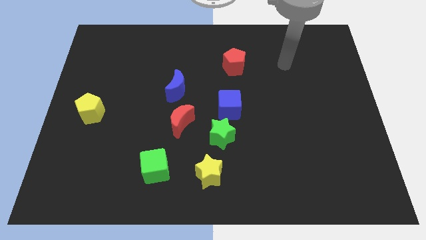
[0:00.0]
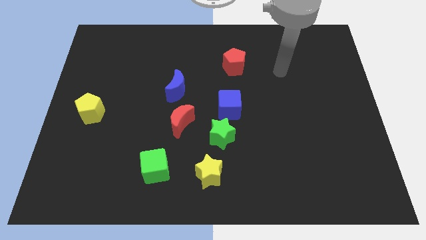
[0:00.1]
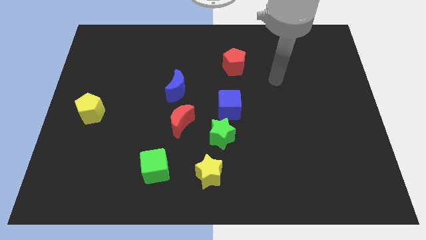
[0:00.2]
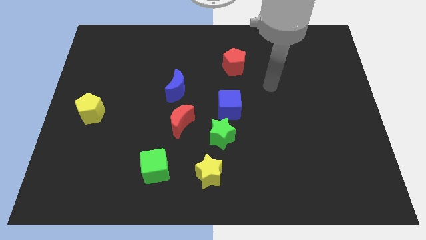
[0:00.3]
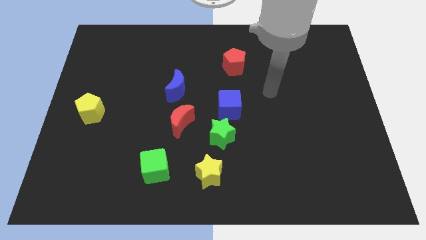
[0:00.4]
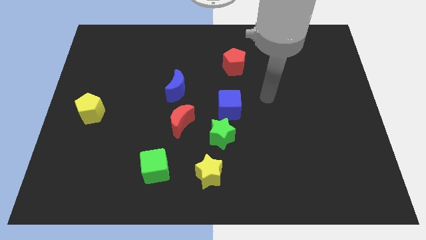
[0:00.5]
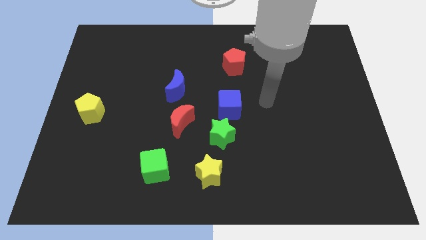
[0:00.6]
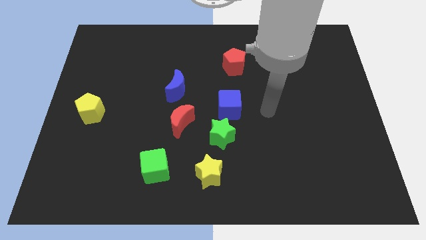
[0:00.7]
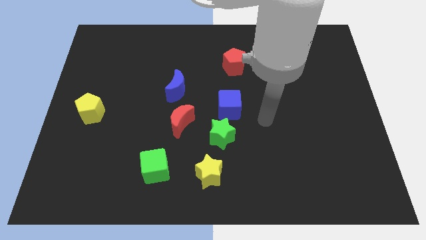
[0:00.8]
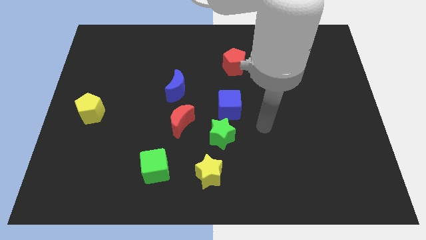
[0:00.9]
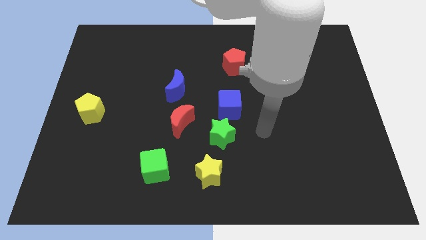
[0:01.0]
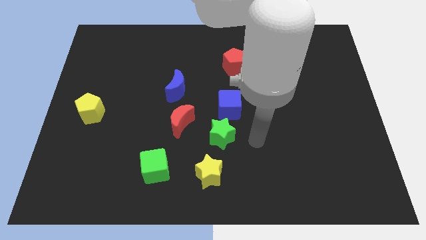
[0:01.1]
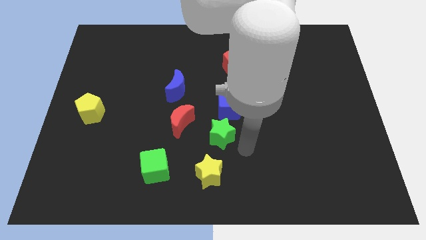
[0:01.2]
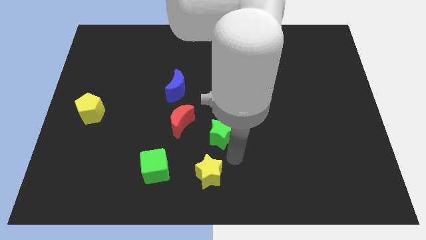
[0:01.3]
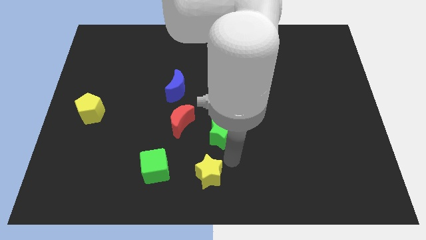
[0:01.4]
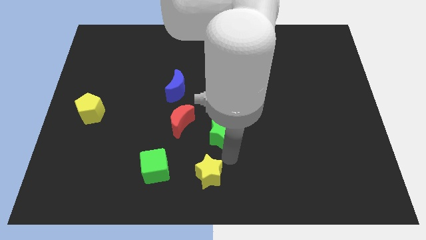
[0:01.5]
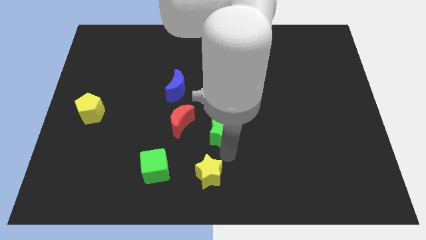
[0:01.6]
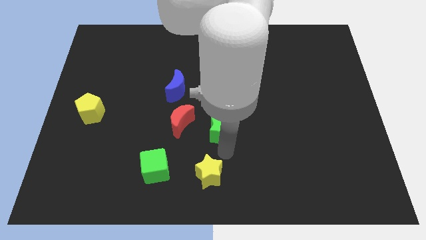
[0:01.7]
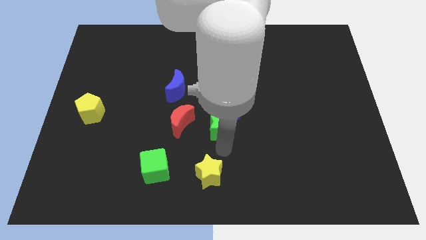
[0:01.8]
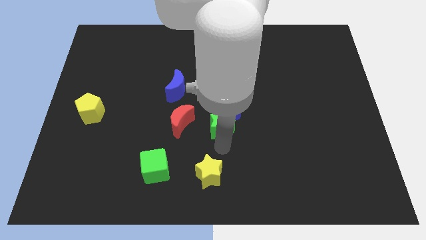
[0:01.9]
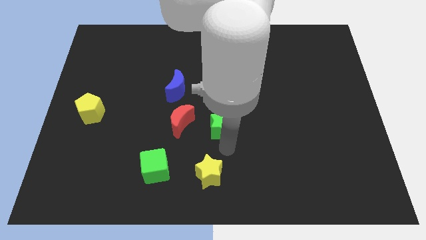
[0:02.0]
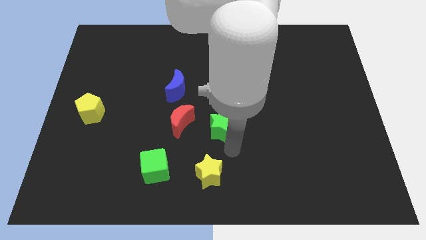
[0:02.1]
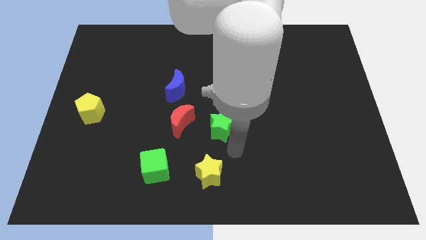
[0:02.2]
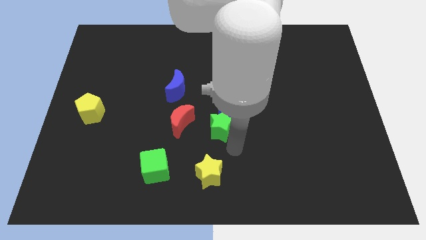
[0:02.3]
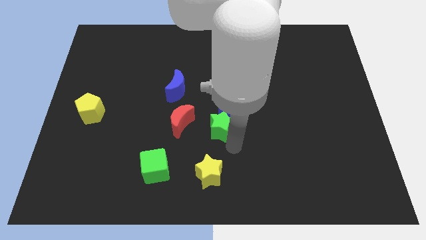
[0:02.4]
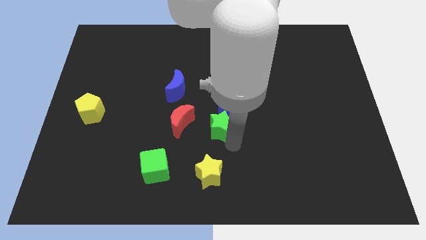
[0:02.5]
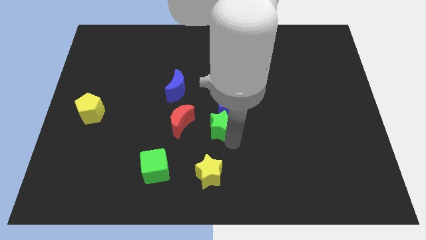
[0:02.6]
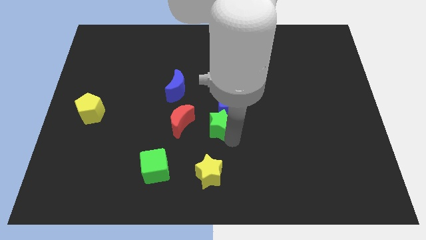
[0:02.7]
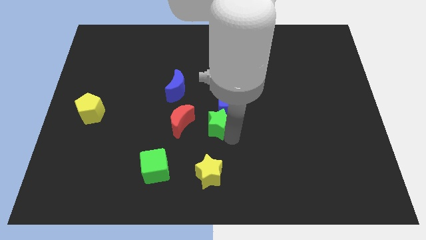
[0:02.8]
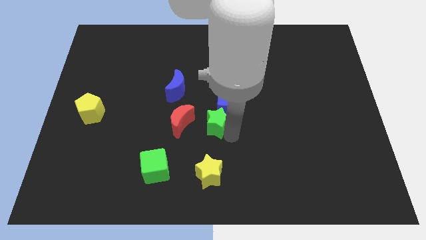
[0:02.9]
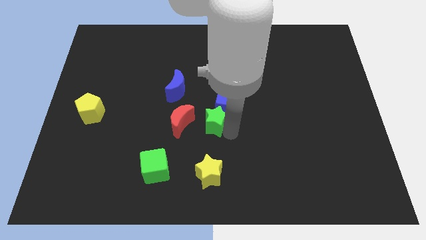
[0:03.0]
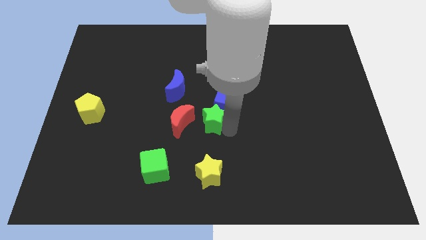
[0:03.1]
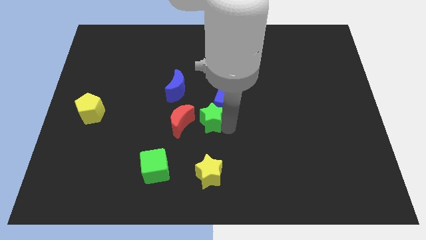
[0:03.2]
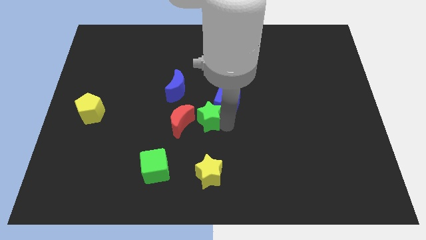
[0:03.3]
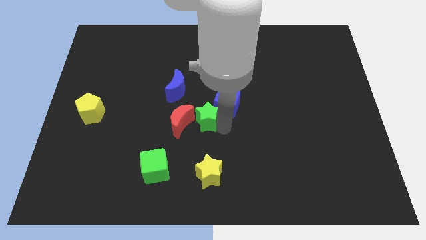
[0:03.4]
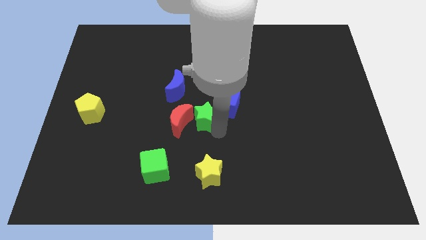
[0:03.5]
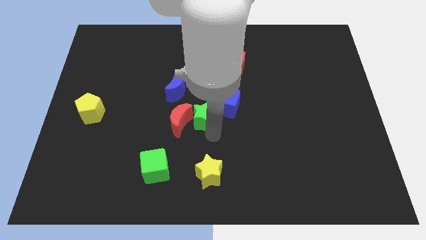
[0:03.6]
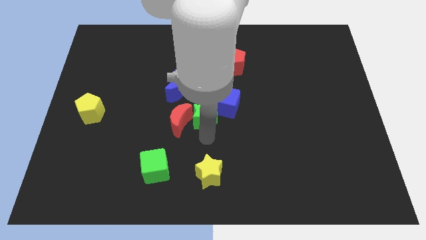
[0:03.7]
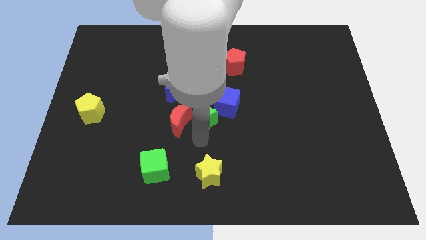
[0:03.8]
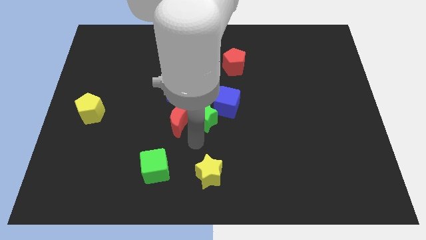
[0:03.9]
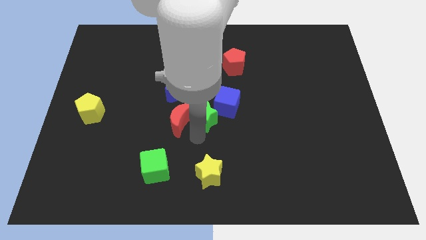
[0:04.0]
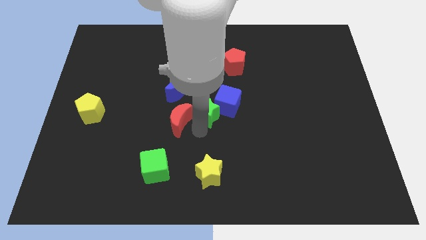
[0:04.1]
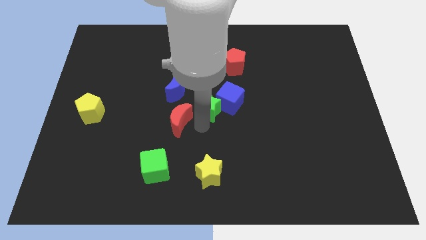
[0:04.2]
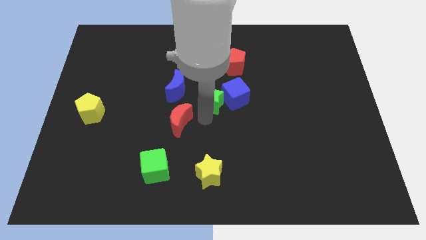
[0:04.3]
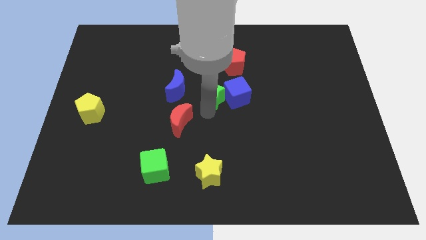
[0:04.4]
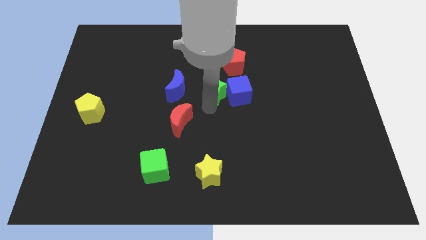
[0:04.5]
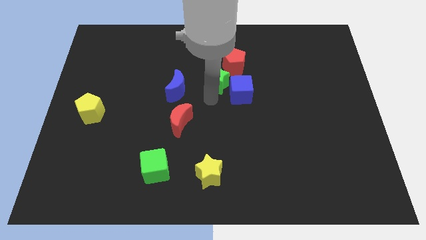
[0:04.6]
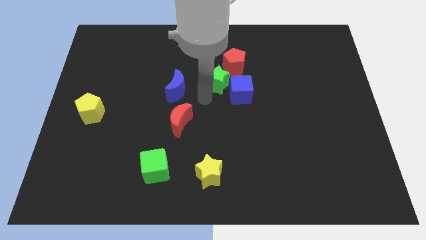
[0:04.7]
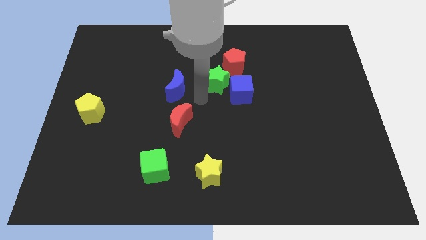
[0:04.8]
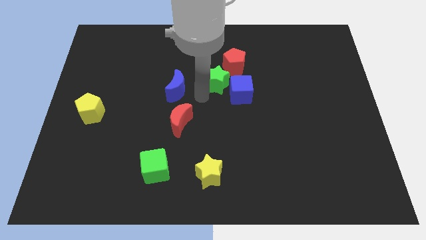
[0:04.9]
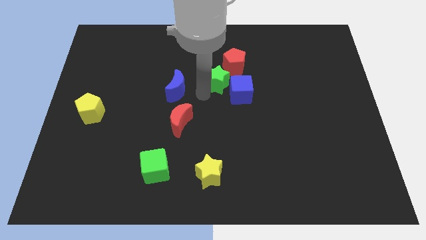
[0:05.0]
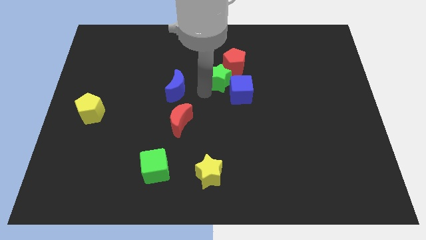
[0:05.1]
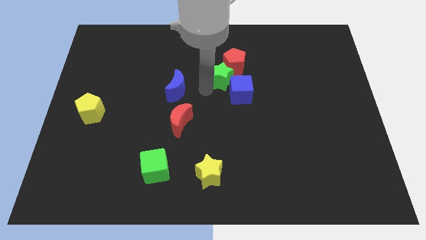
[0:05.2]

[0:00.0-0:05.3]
slide the green star next to the red pentagon

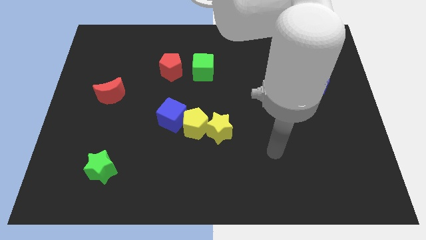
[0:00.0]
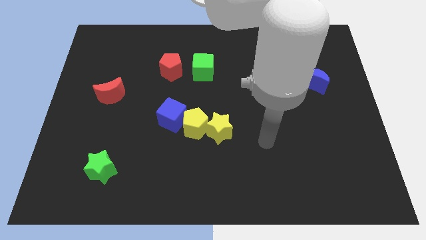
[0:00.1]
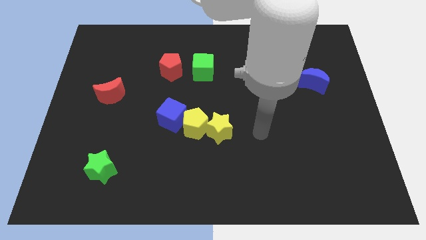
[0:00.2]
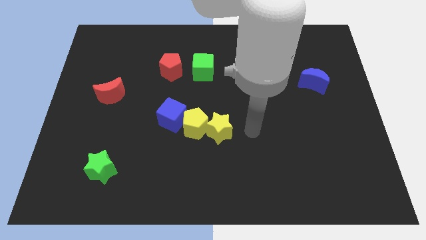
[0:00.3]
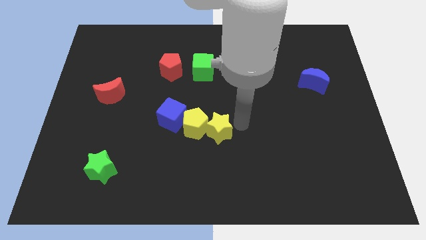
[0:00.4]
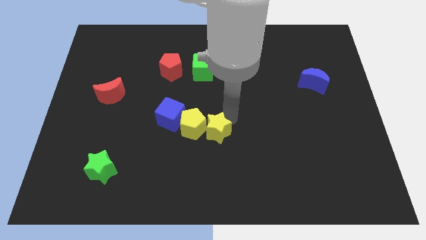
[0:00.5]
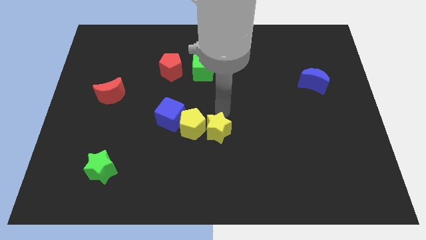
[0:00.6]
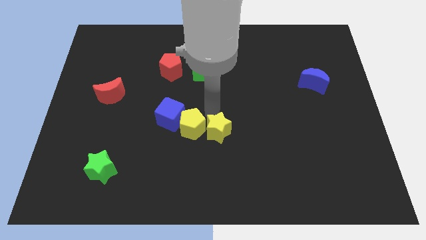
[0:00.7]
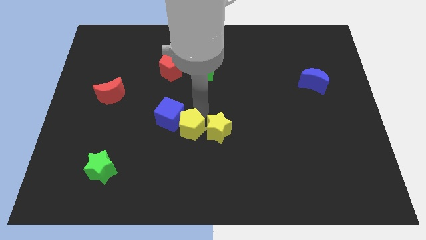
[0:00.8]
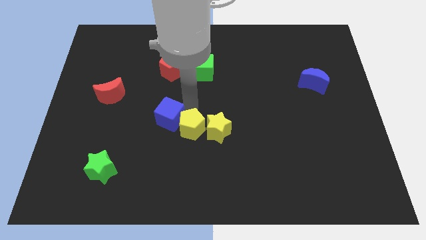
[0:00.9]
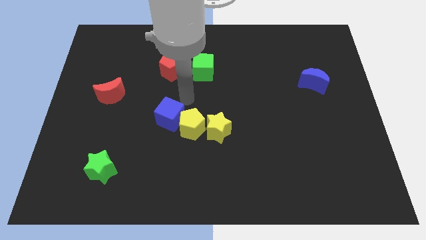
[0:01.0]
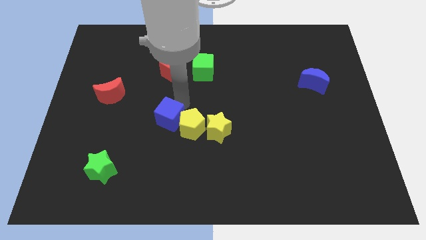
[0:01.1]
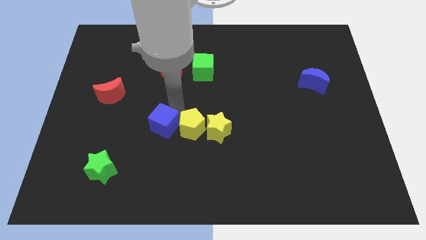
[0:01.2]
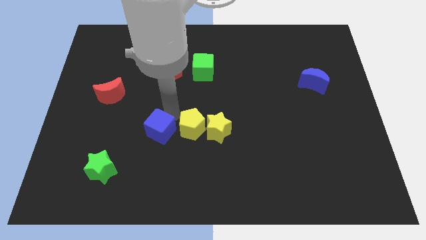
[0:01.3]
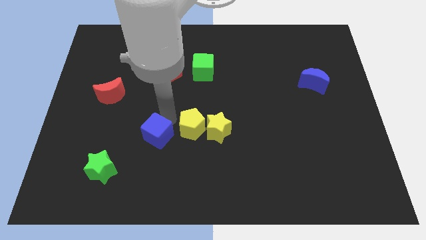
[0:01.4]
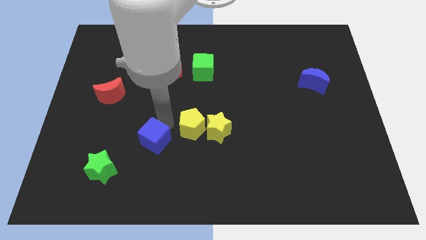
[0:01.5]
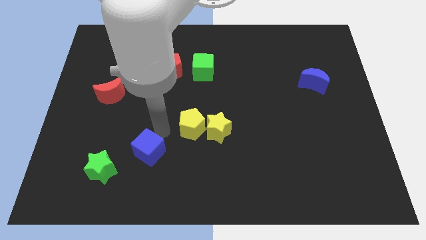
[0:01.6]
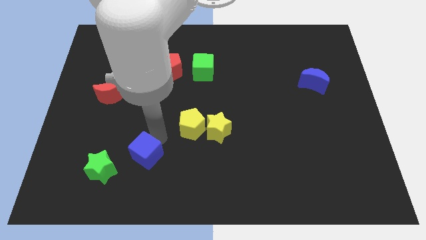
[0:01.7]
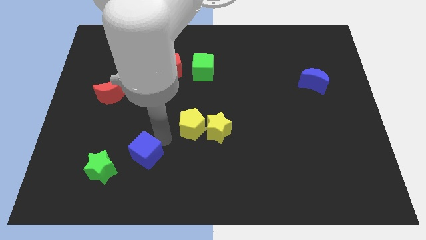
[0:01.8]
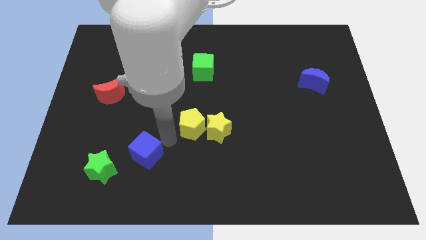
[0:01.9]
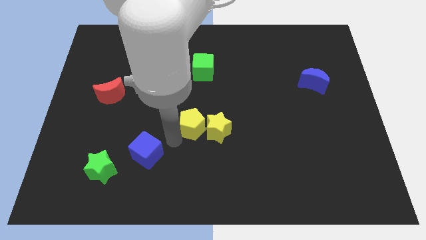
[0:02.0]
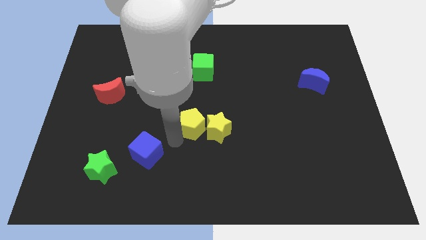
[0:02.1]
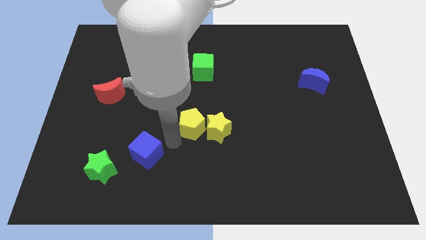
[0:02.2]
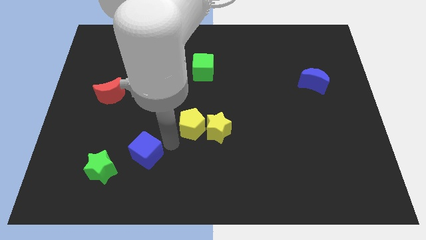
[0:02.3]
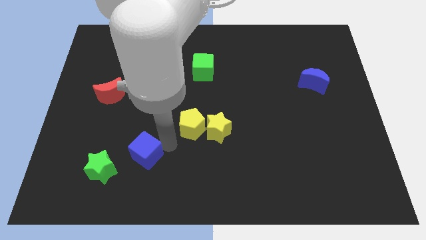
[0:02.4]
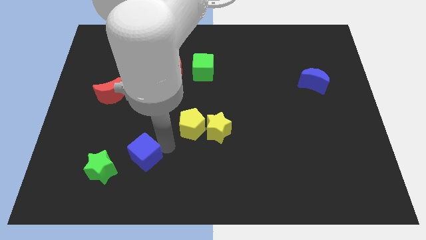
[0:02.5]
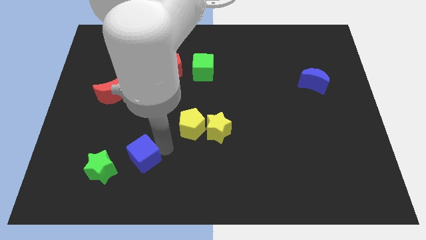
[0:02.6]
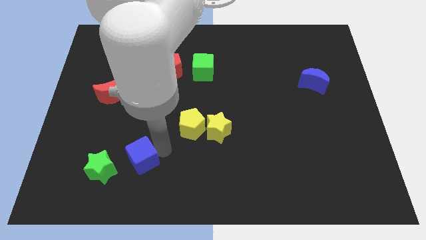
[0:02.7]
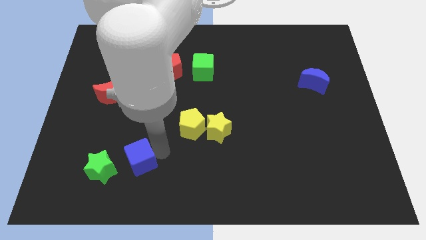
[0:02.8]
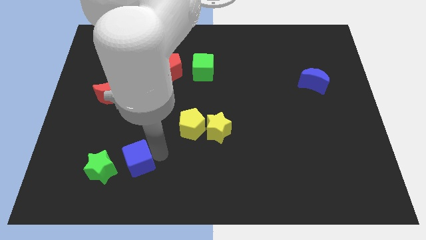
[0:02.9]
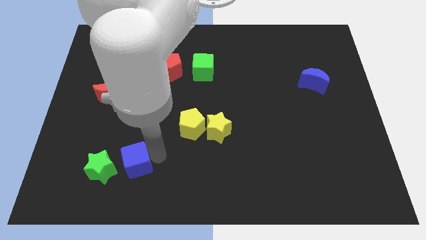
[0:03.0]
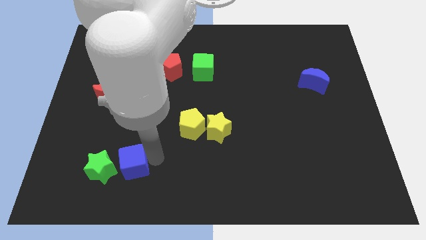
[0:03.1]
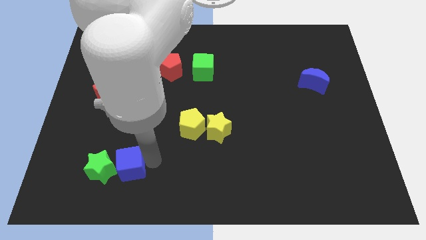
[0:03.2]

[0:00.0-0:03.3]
put the blue cube next to the green star
